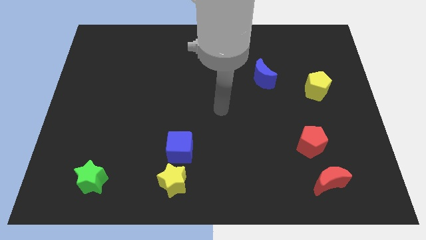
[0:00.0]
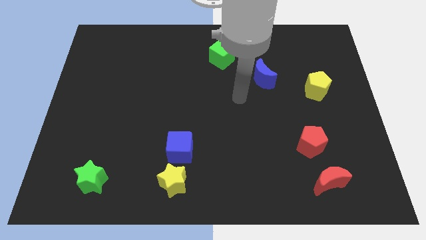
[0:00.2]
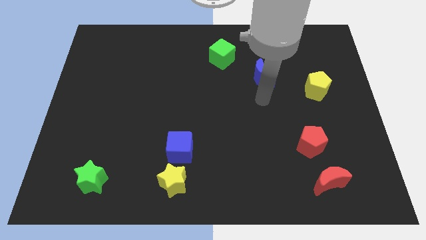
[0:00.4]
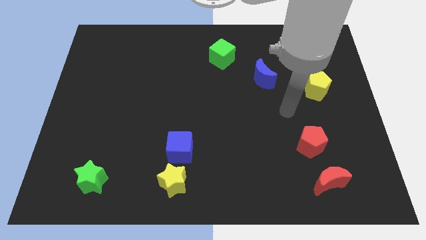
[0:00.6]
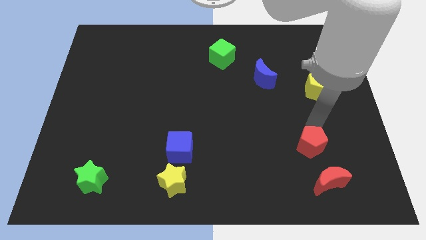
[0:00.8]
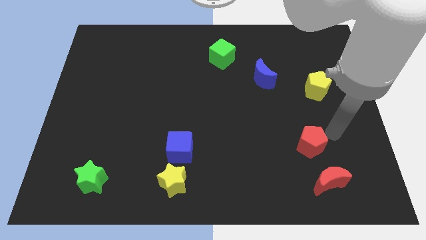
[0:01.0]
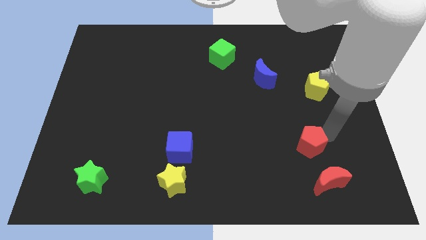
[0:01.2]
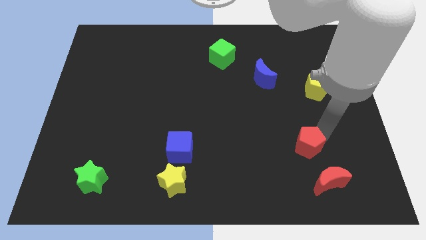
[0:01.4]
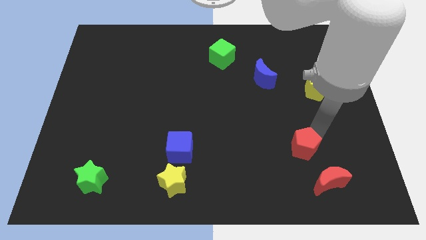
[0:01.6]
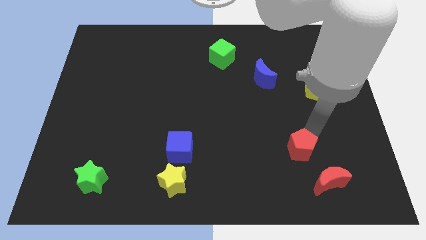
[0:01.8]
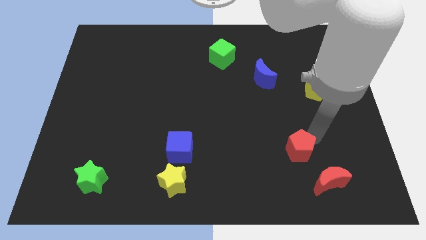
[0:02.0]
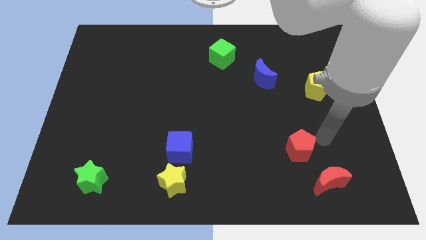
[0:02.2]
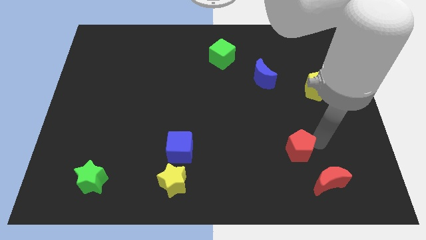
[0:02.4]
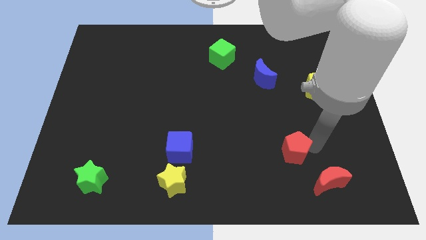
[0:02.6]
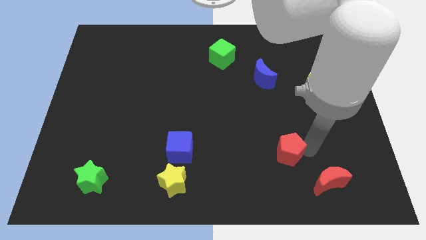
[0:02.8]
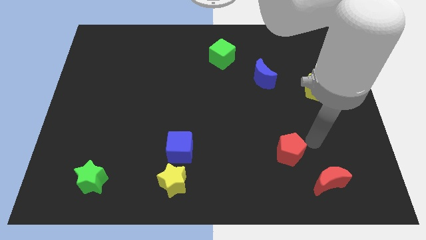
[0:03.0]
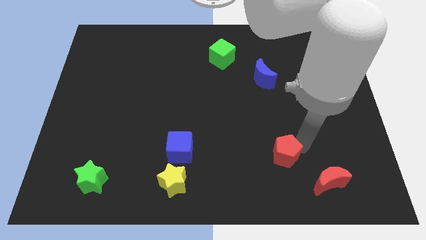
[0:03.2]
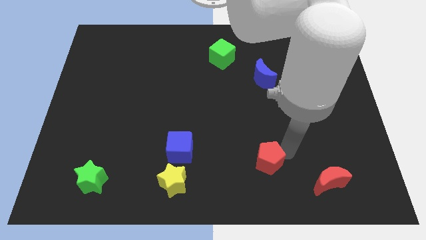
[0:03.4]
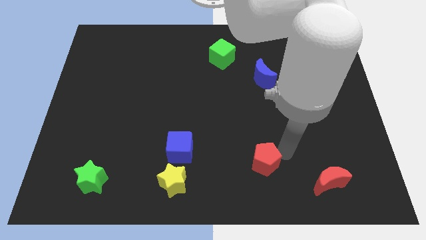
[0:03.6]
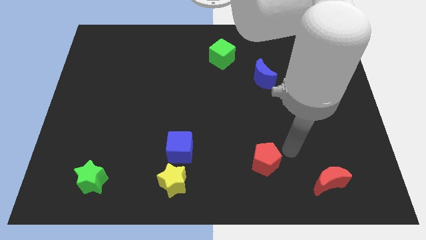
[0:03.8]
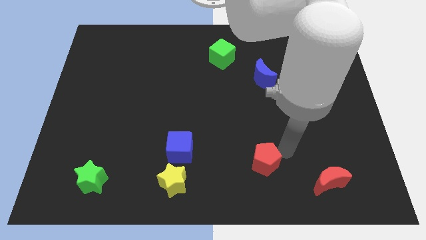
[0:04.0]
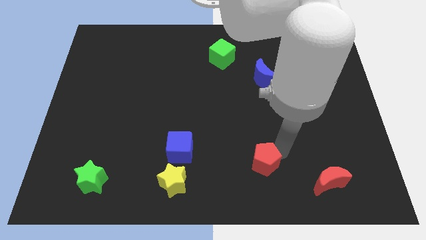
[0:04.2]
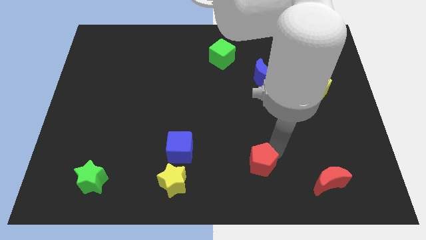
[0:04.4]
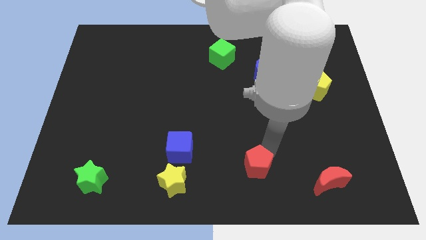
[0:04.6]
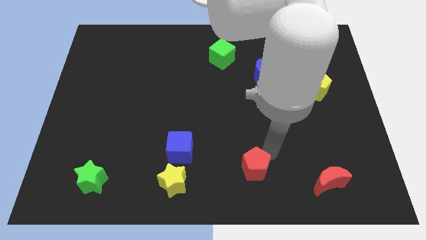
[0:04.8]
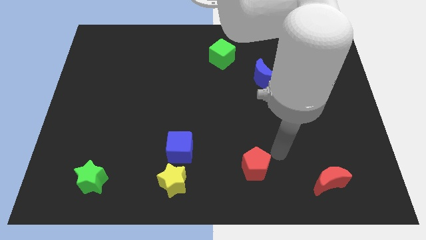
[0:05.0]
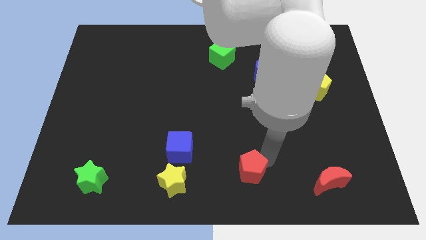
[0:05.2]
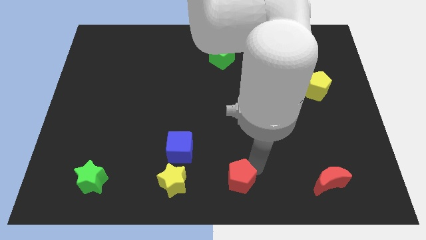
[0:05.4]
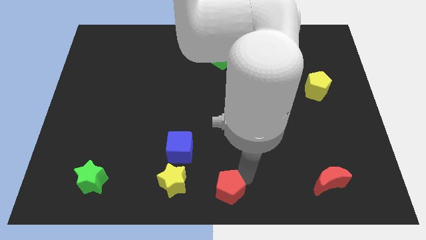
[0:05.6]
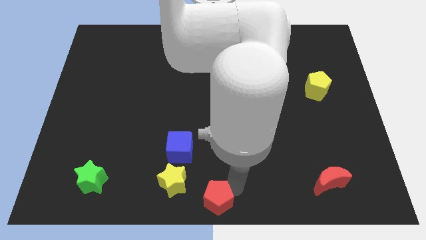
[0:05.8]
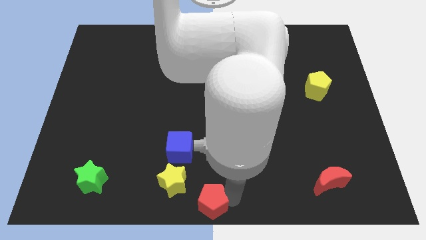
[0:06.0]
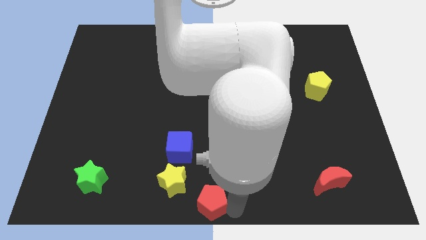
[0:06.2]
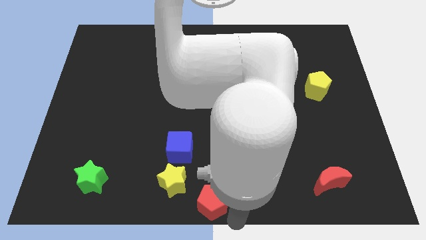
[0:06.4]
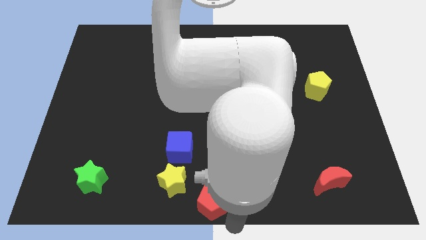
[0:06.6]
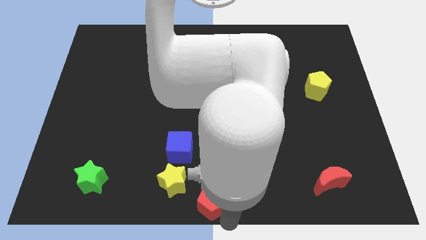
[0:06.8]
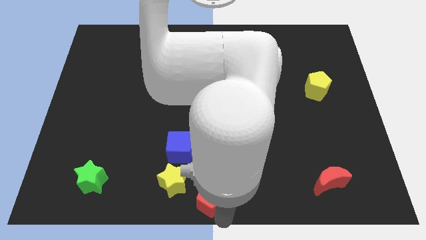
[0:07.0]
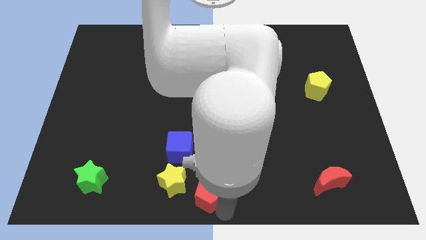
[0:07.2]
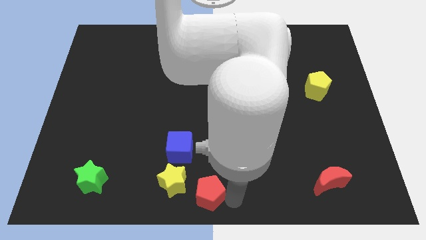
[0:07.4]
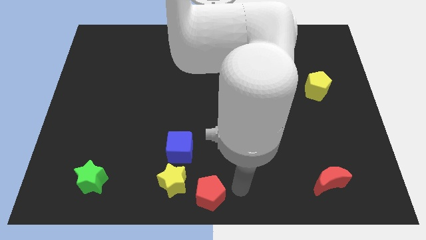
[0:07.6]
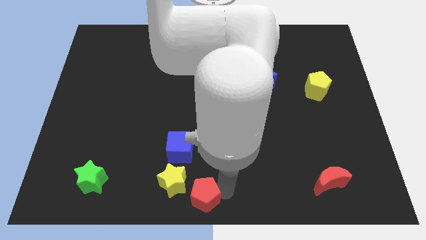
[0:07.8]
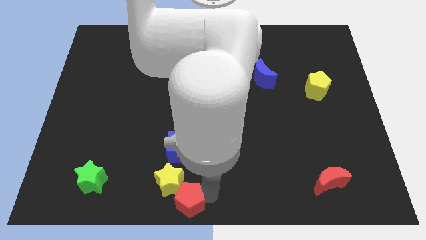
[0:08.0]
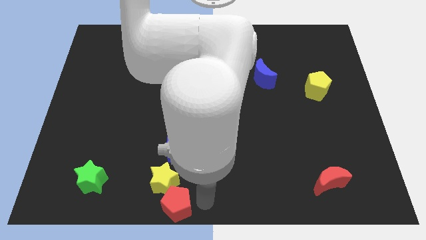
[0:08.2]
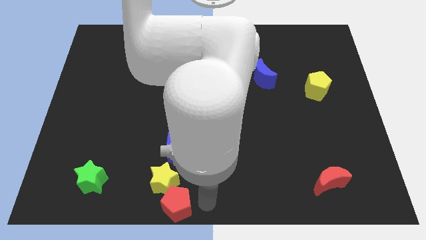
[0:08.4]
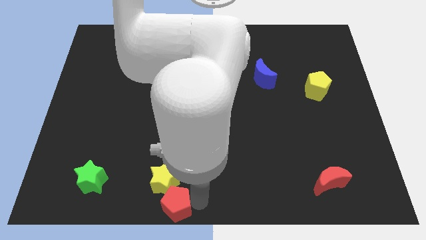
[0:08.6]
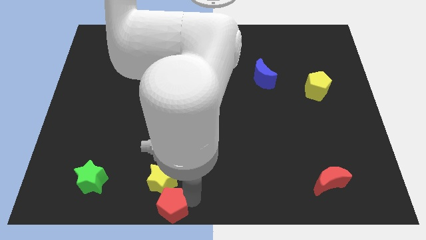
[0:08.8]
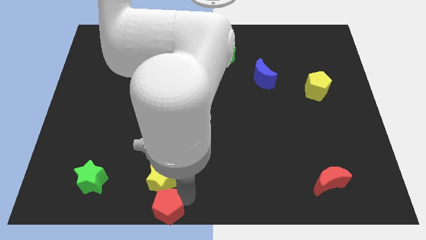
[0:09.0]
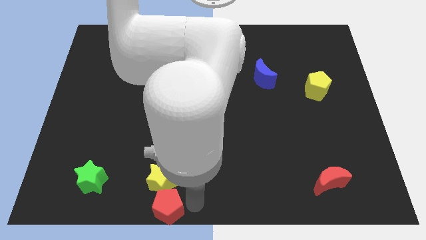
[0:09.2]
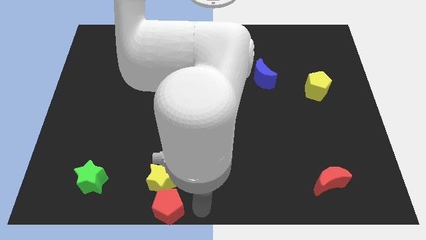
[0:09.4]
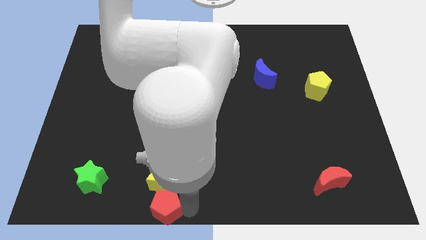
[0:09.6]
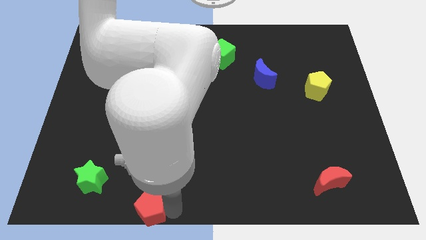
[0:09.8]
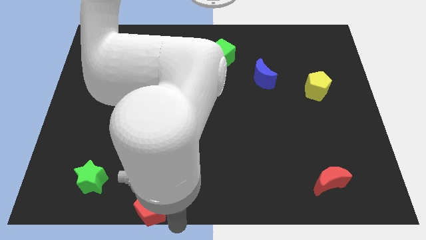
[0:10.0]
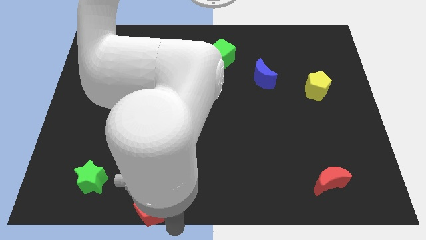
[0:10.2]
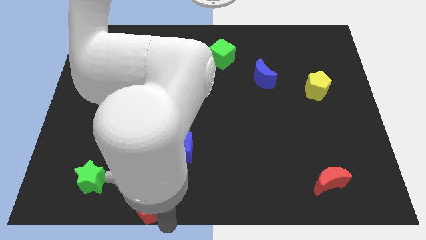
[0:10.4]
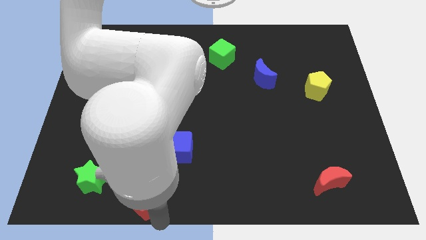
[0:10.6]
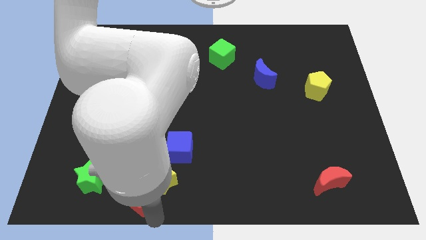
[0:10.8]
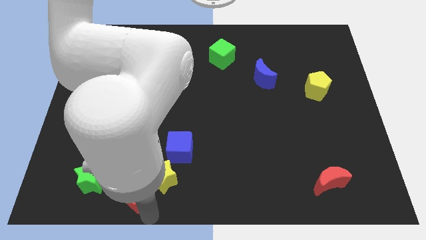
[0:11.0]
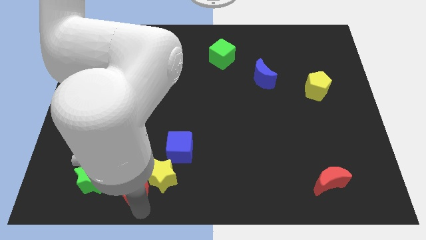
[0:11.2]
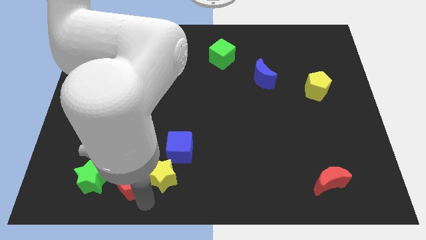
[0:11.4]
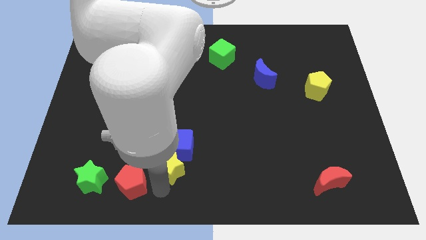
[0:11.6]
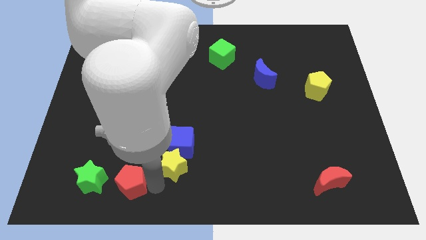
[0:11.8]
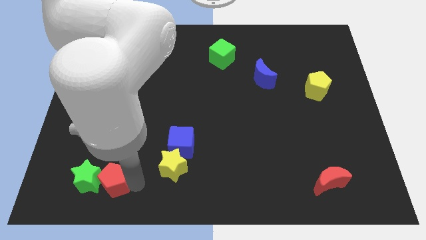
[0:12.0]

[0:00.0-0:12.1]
push the red pentagon close to the green star
